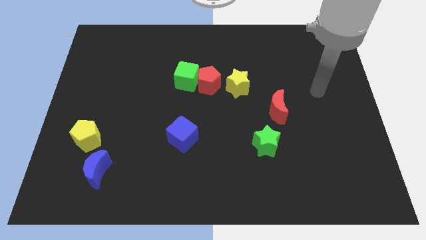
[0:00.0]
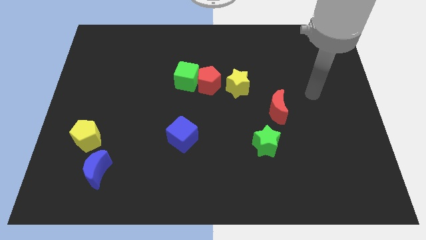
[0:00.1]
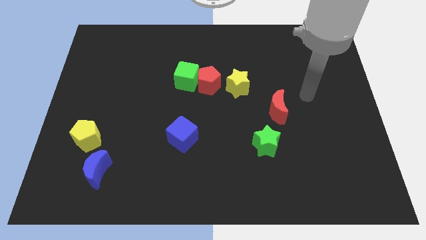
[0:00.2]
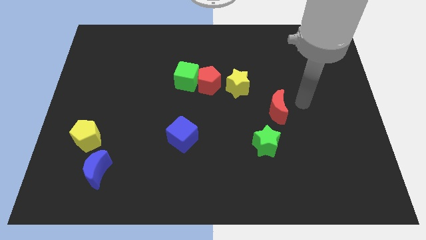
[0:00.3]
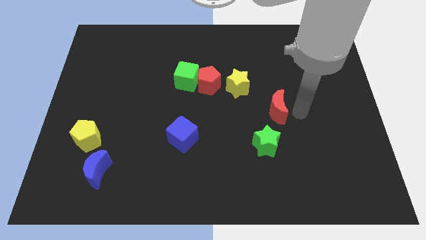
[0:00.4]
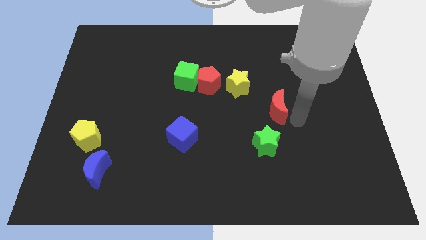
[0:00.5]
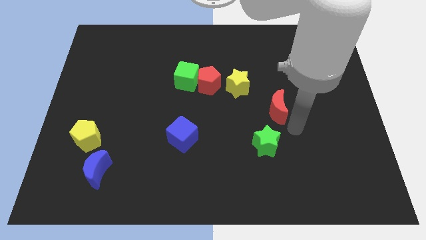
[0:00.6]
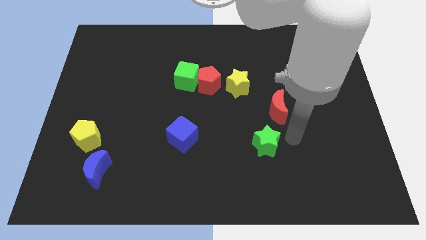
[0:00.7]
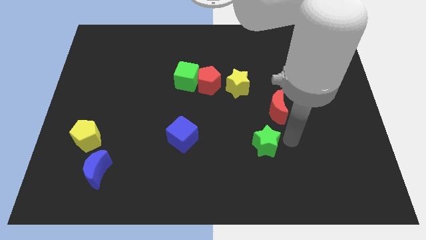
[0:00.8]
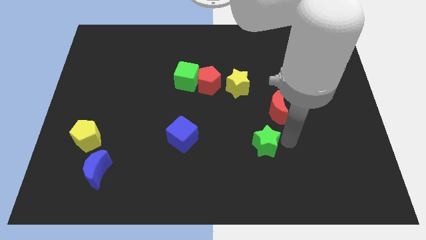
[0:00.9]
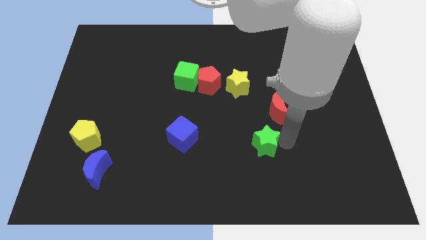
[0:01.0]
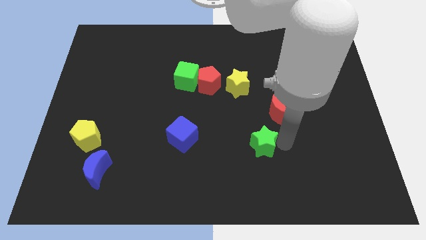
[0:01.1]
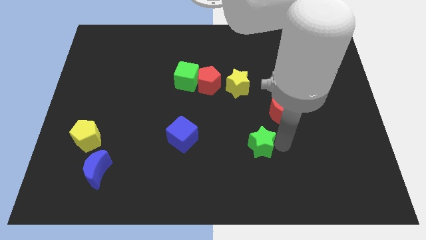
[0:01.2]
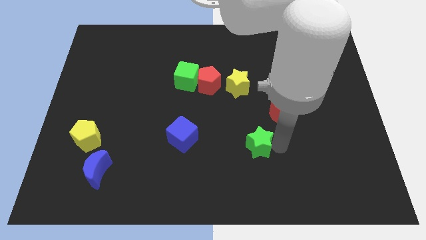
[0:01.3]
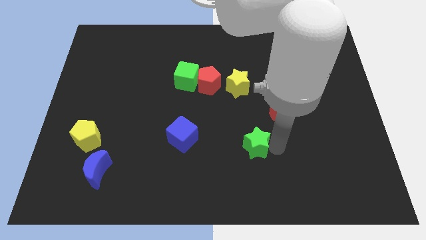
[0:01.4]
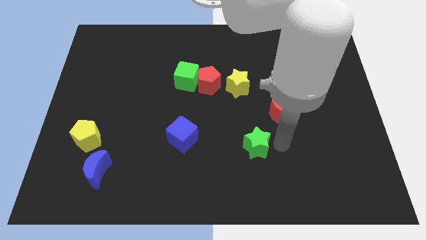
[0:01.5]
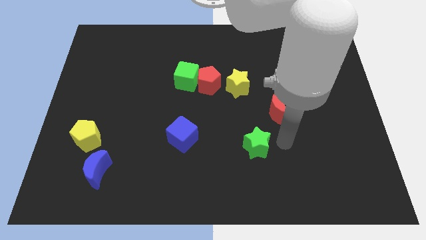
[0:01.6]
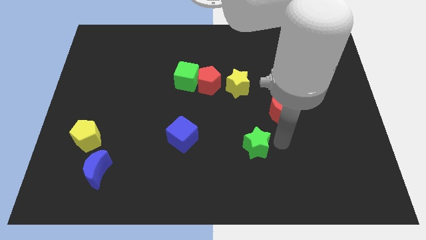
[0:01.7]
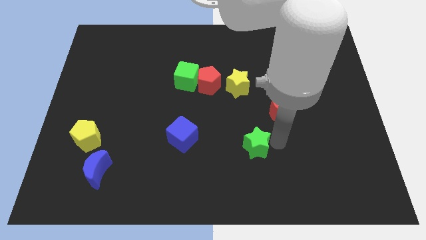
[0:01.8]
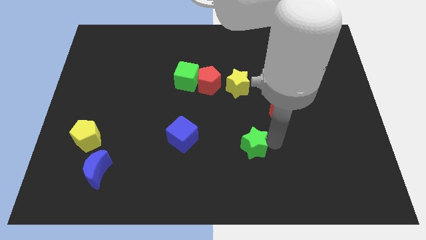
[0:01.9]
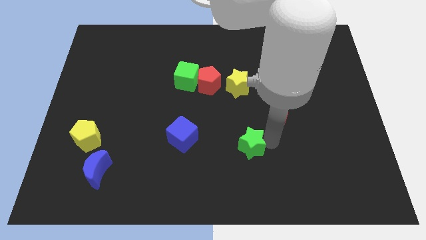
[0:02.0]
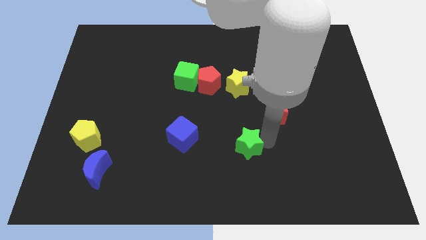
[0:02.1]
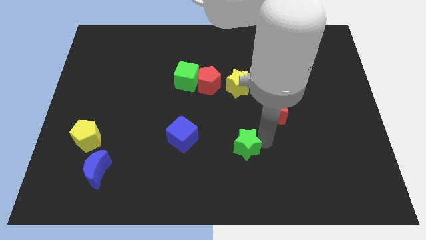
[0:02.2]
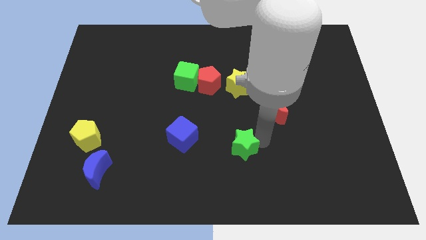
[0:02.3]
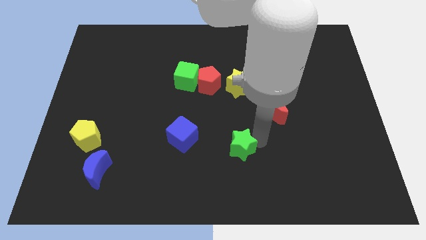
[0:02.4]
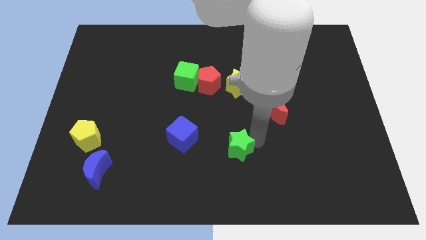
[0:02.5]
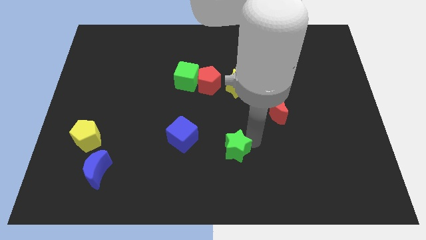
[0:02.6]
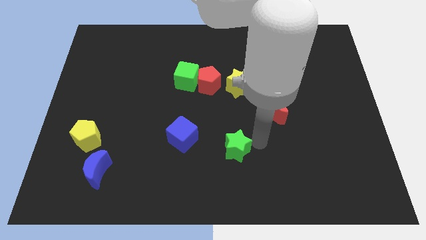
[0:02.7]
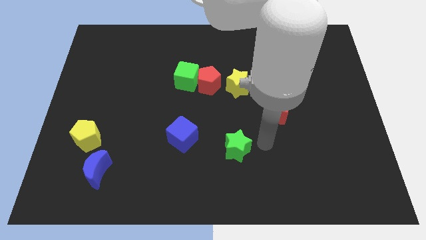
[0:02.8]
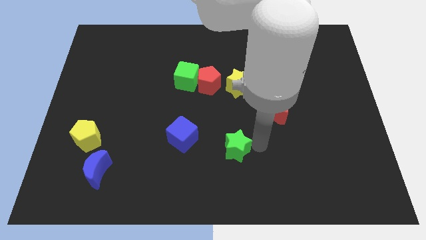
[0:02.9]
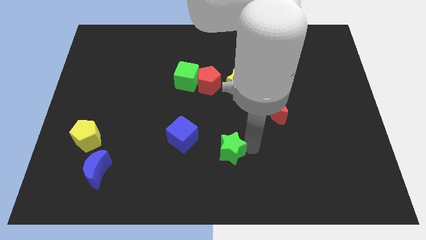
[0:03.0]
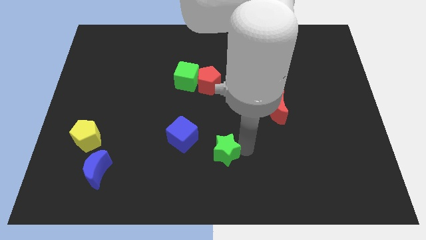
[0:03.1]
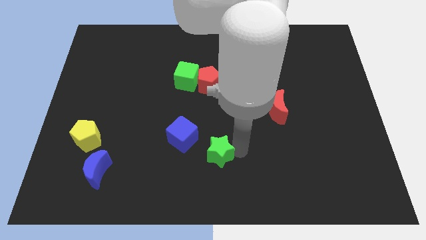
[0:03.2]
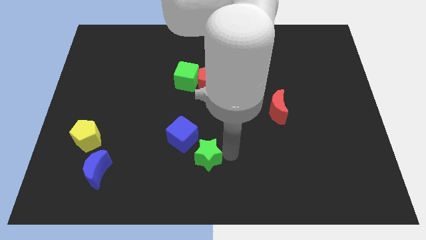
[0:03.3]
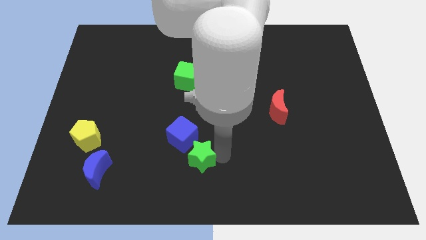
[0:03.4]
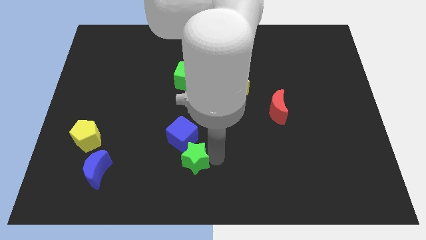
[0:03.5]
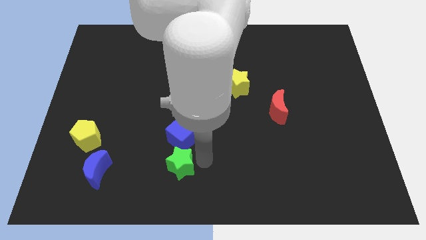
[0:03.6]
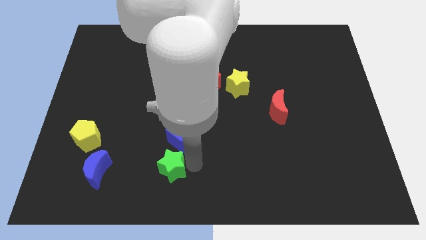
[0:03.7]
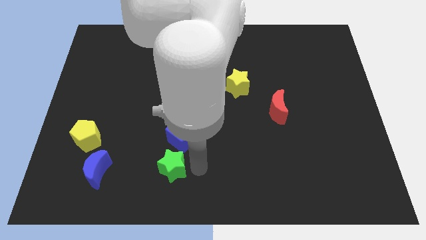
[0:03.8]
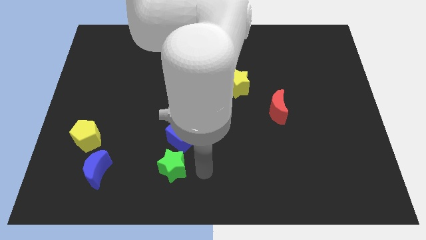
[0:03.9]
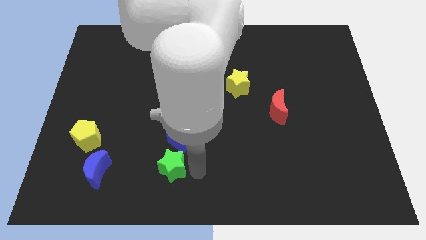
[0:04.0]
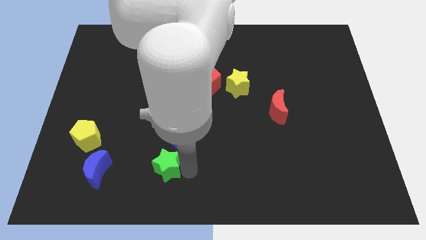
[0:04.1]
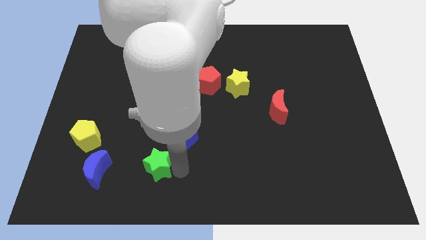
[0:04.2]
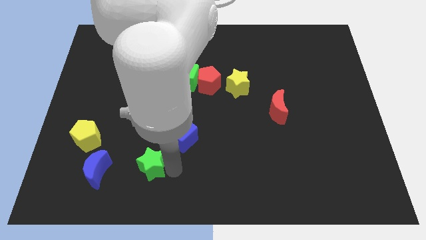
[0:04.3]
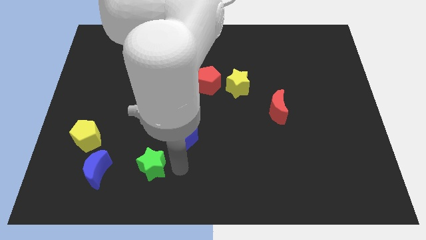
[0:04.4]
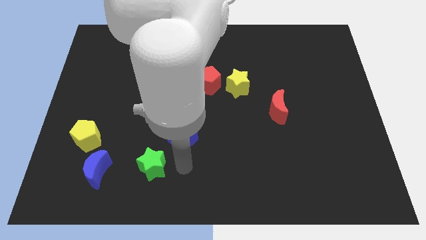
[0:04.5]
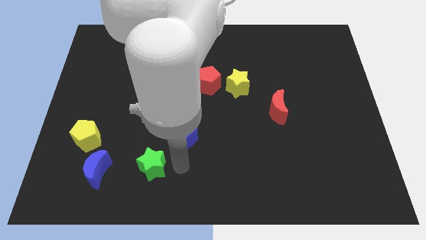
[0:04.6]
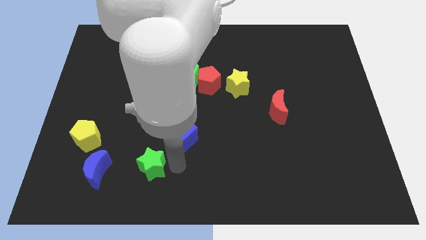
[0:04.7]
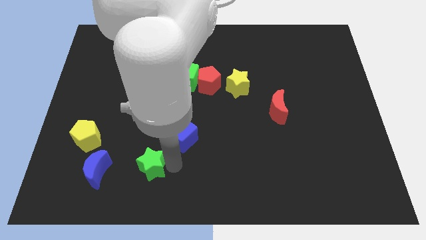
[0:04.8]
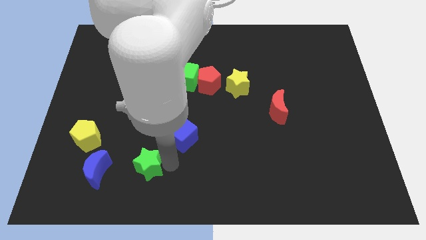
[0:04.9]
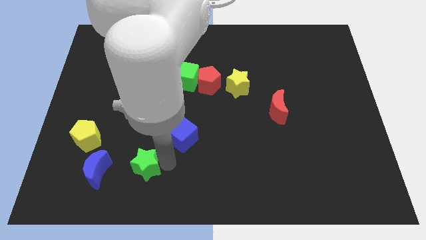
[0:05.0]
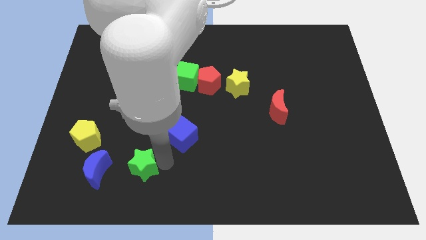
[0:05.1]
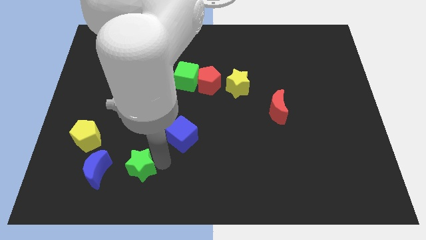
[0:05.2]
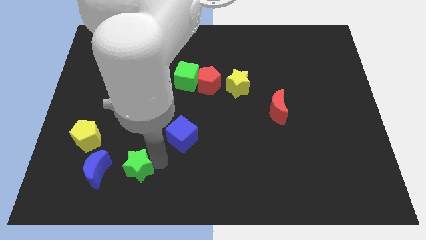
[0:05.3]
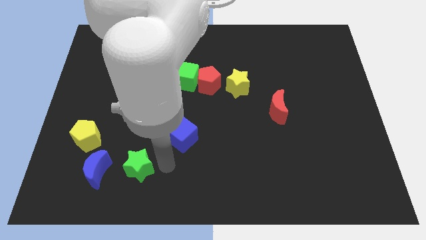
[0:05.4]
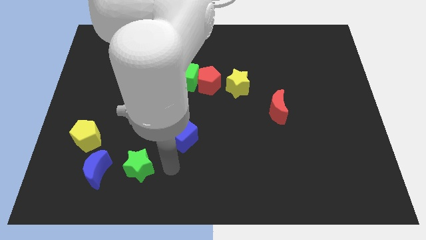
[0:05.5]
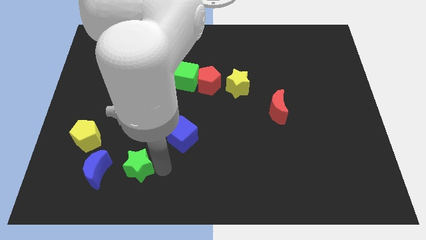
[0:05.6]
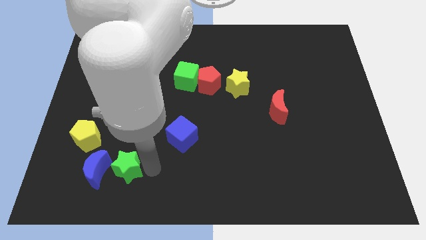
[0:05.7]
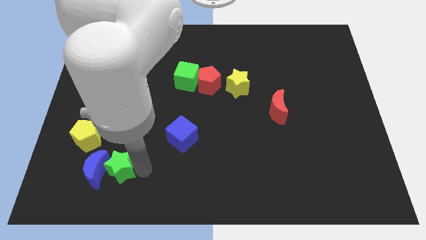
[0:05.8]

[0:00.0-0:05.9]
move the green star towards the blue moon
